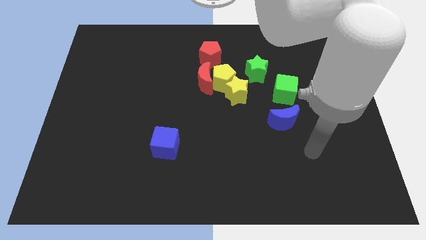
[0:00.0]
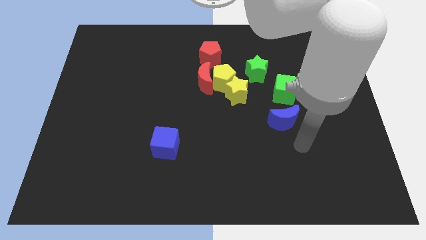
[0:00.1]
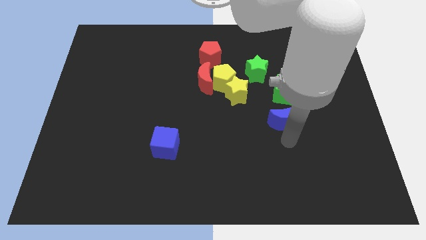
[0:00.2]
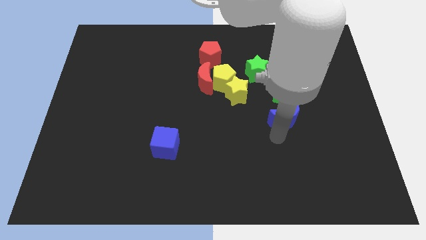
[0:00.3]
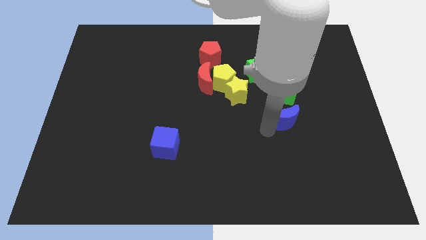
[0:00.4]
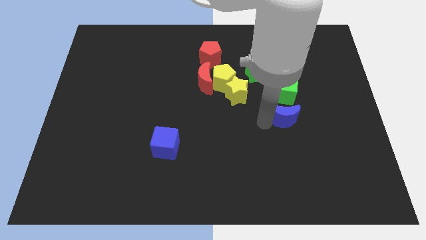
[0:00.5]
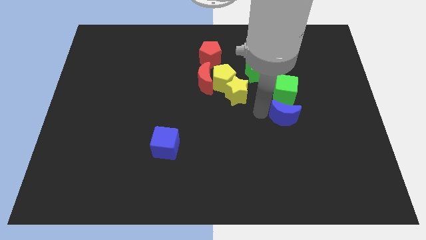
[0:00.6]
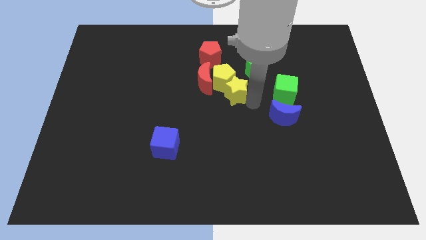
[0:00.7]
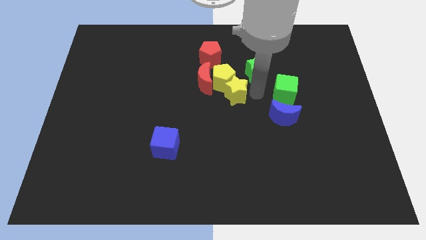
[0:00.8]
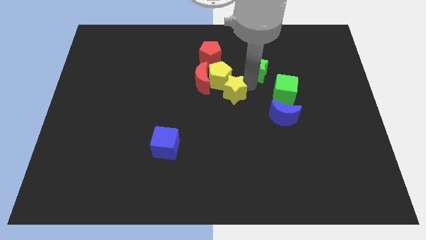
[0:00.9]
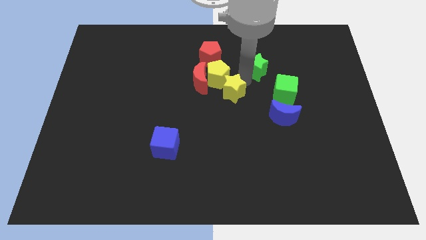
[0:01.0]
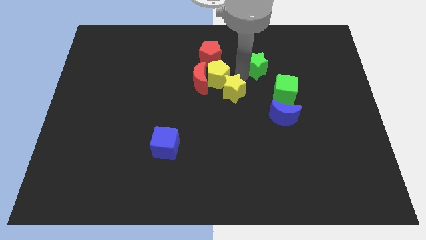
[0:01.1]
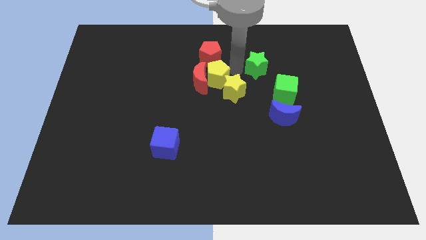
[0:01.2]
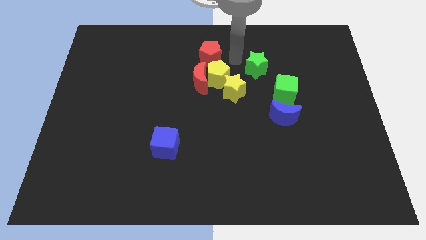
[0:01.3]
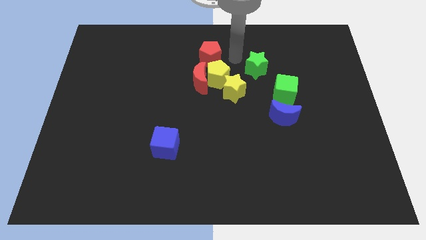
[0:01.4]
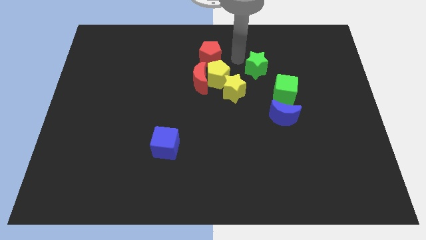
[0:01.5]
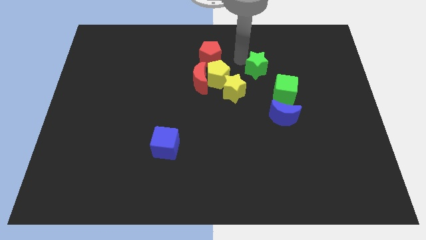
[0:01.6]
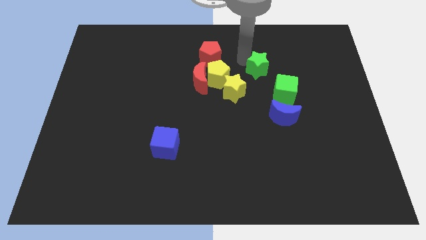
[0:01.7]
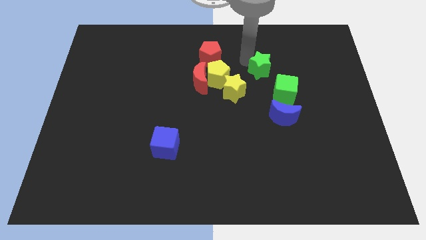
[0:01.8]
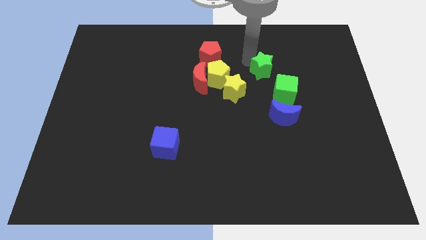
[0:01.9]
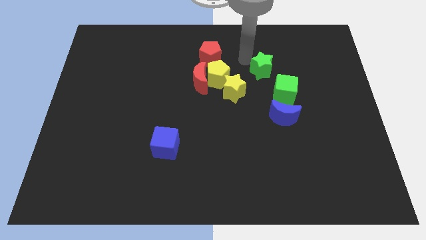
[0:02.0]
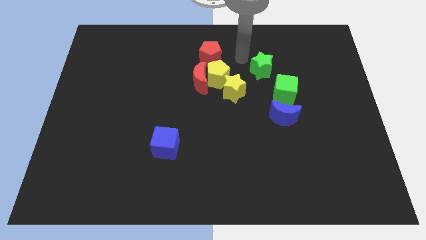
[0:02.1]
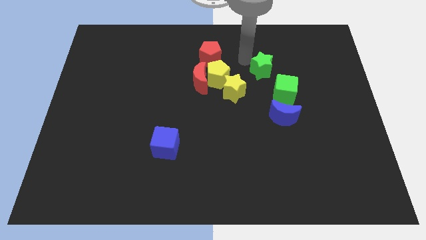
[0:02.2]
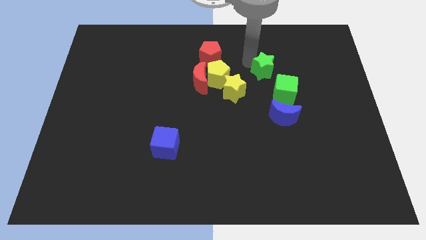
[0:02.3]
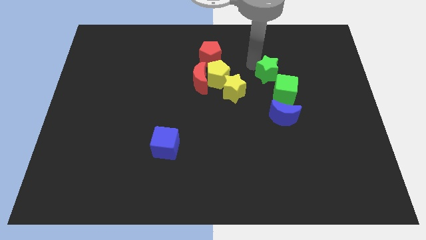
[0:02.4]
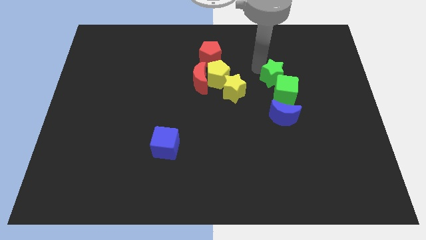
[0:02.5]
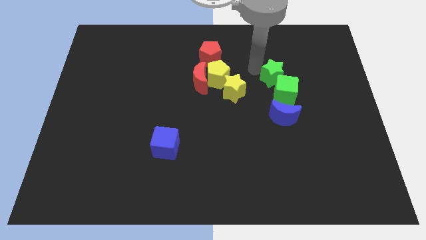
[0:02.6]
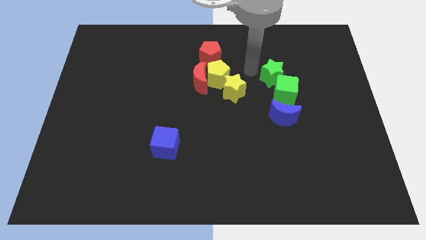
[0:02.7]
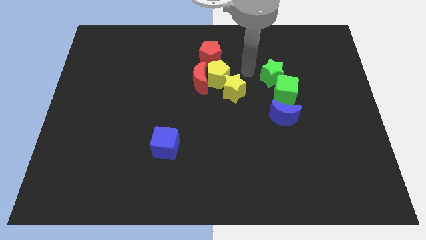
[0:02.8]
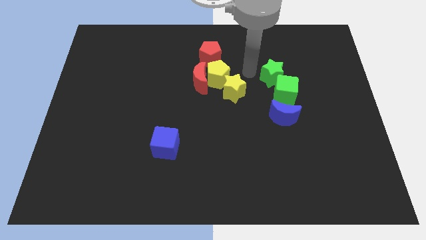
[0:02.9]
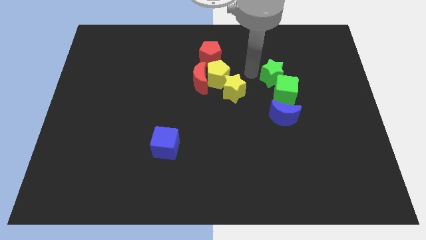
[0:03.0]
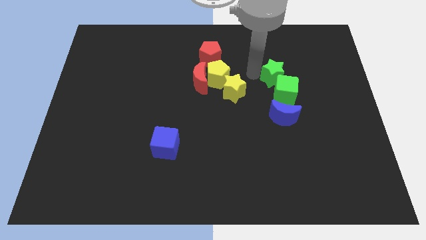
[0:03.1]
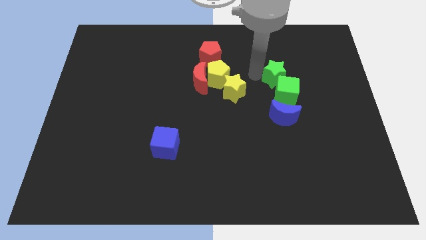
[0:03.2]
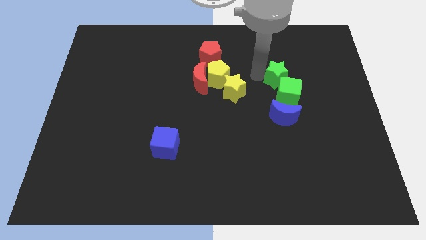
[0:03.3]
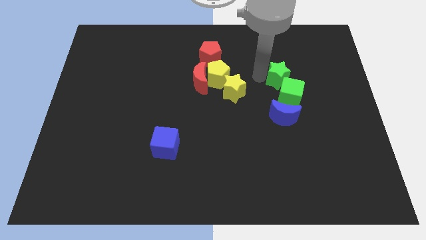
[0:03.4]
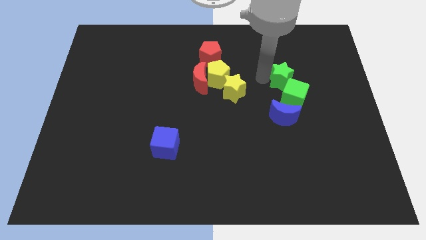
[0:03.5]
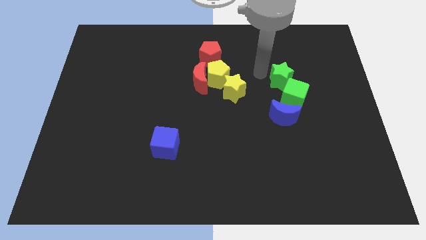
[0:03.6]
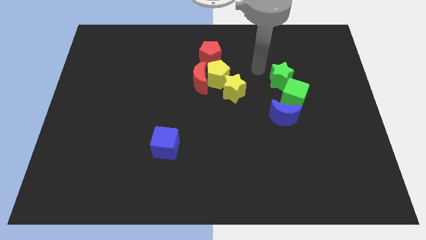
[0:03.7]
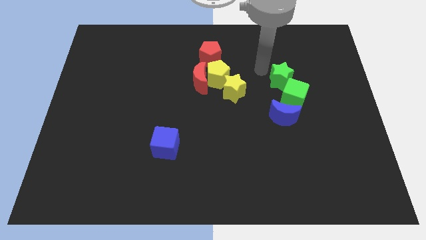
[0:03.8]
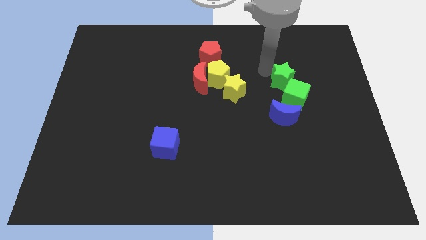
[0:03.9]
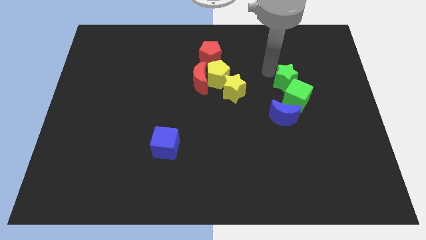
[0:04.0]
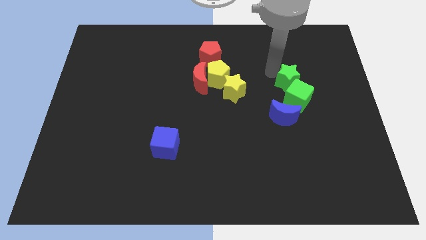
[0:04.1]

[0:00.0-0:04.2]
slightly move the green star diagonally downwards and right

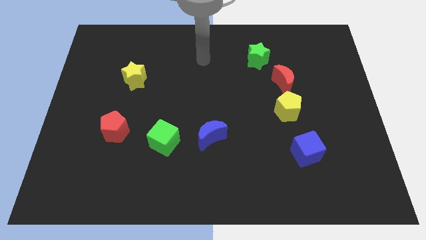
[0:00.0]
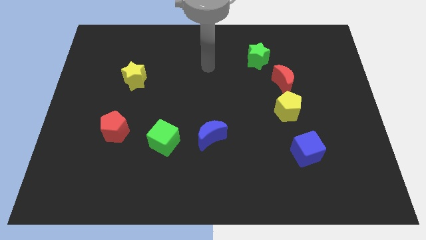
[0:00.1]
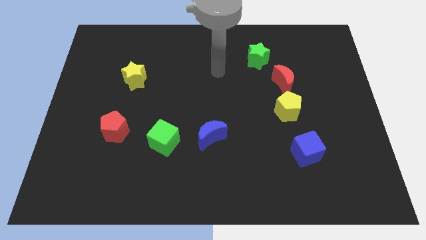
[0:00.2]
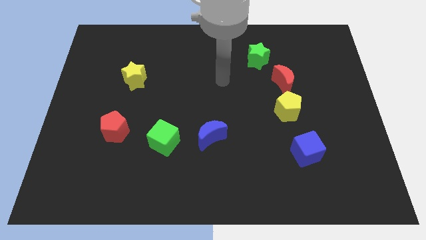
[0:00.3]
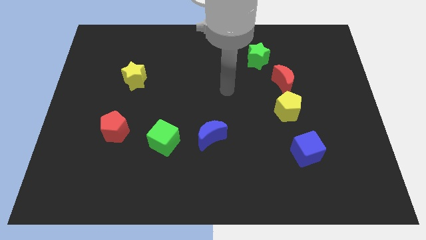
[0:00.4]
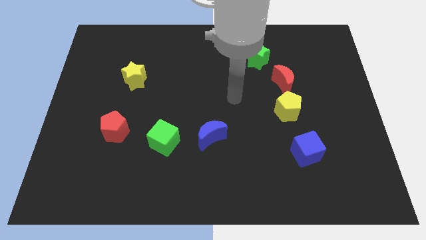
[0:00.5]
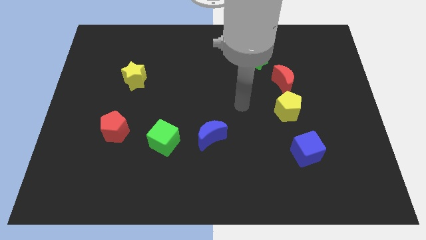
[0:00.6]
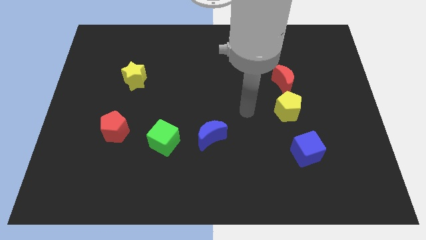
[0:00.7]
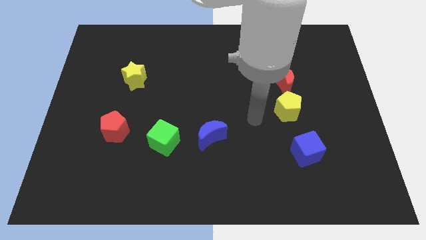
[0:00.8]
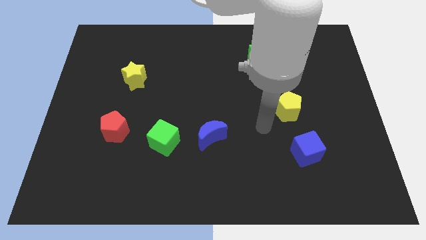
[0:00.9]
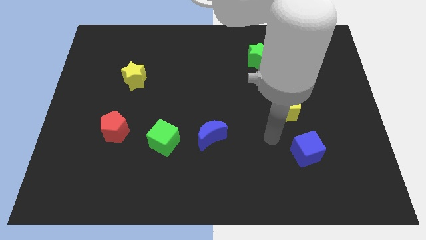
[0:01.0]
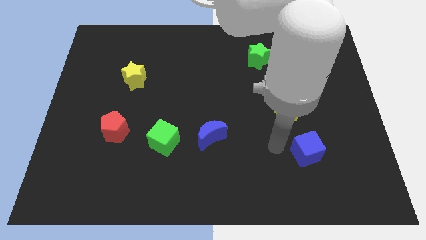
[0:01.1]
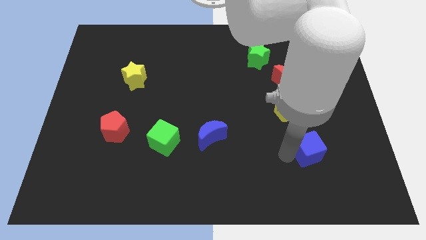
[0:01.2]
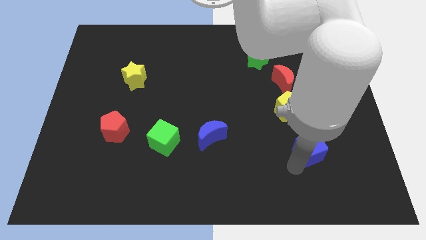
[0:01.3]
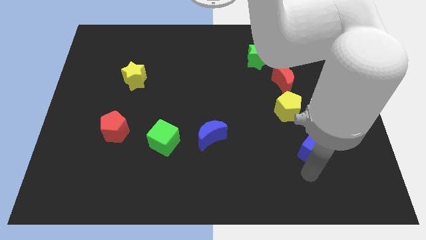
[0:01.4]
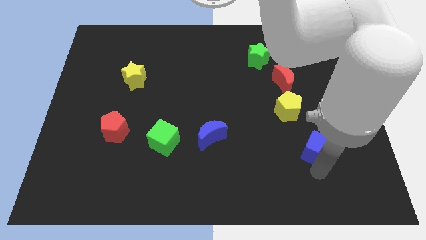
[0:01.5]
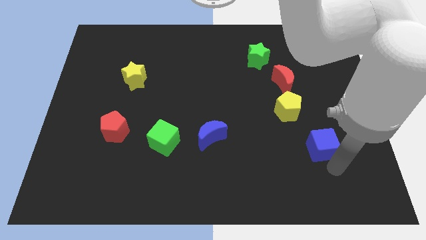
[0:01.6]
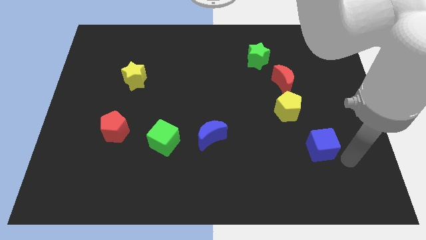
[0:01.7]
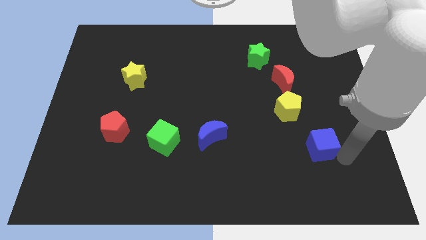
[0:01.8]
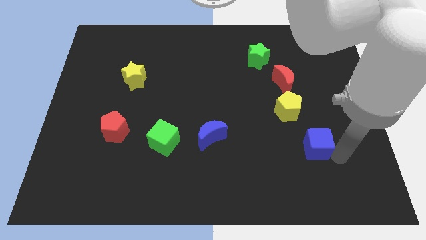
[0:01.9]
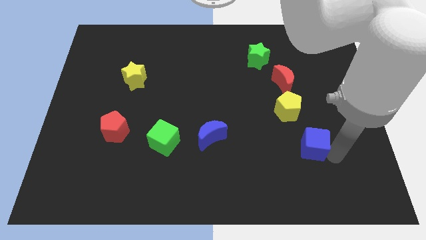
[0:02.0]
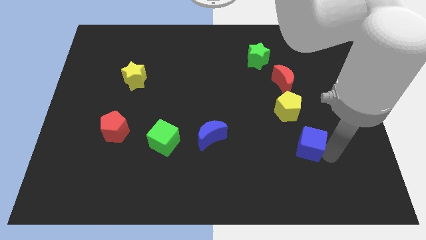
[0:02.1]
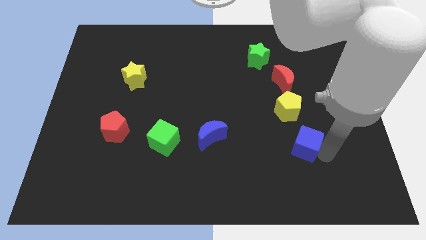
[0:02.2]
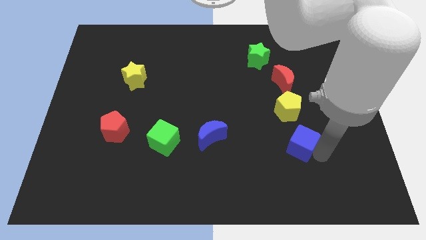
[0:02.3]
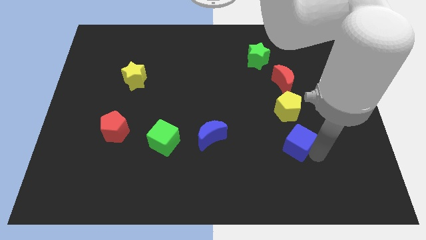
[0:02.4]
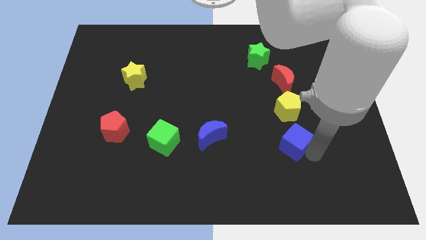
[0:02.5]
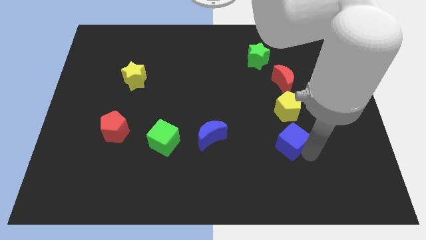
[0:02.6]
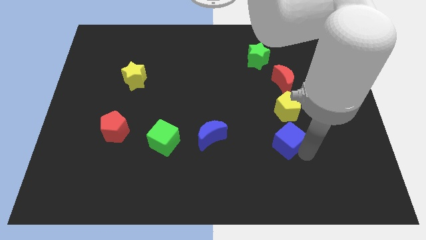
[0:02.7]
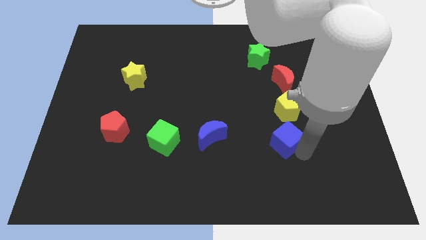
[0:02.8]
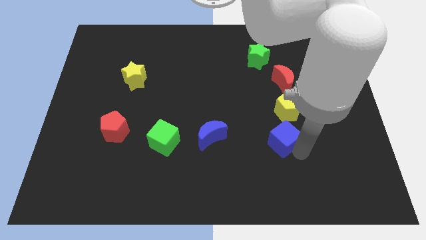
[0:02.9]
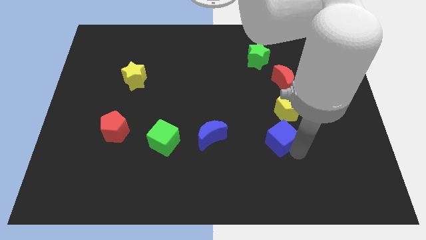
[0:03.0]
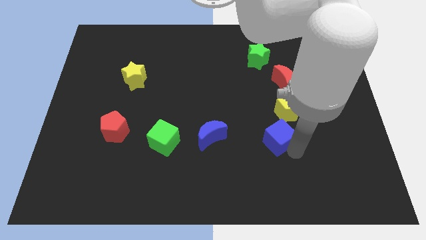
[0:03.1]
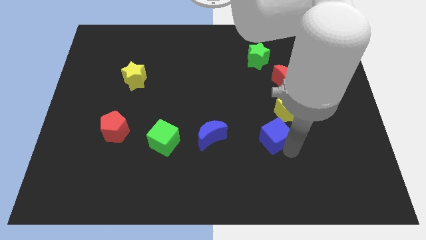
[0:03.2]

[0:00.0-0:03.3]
slightly move the blue cube diagonally up and to the left

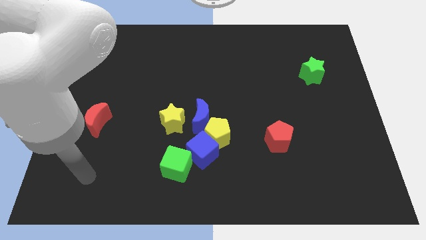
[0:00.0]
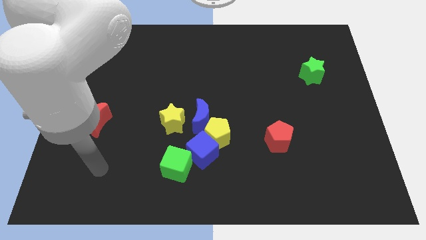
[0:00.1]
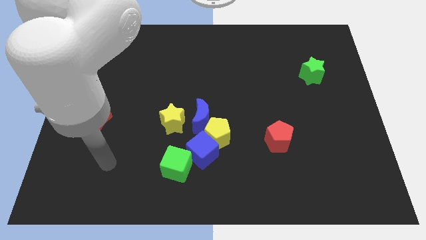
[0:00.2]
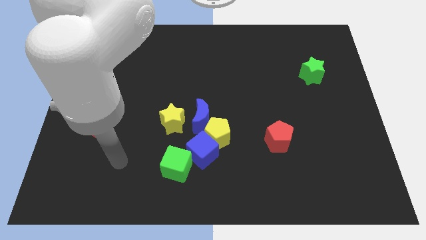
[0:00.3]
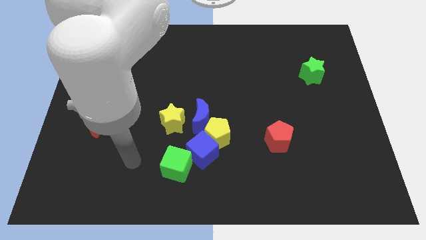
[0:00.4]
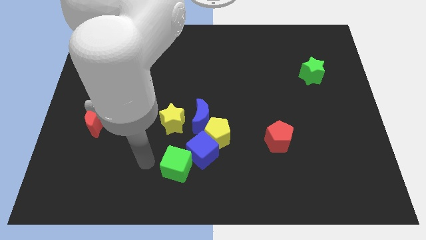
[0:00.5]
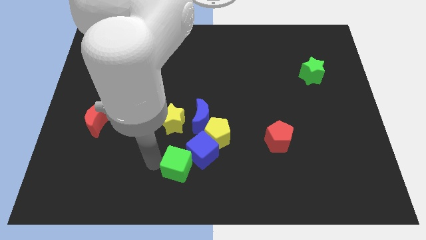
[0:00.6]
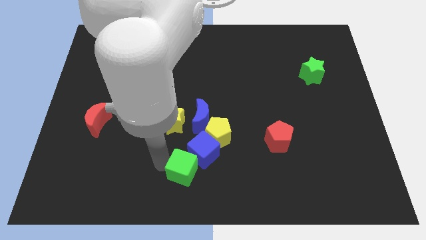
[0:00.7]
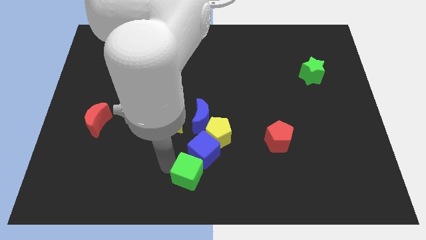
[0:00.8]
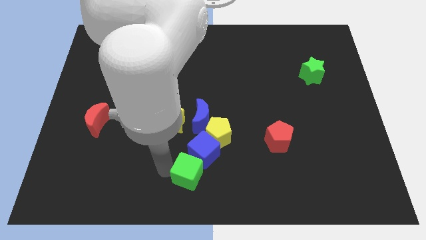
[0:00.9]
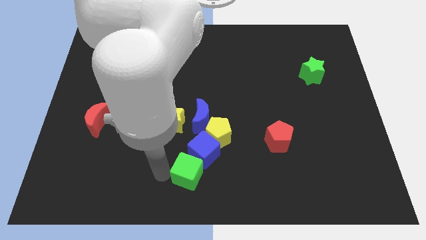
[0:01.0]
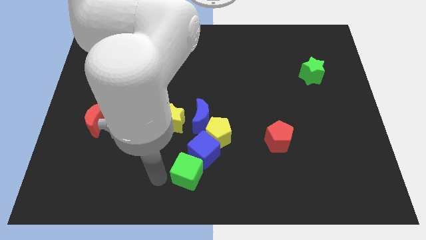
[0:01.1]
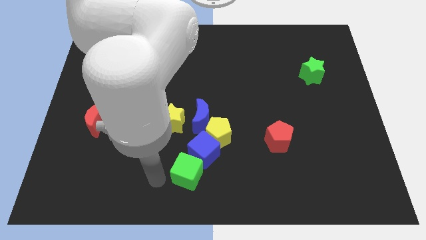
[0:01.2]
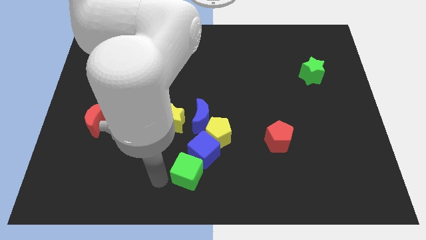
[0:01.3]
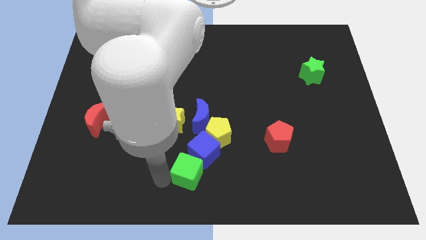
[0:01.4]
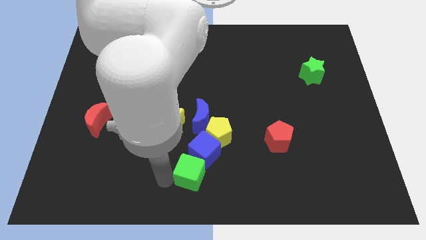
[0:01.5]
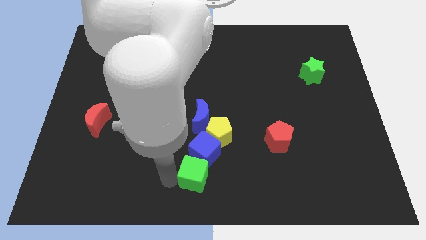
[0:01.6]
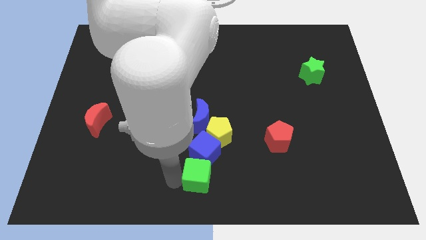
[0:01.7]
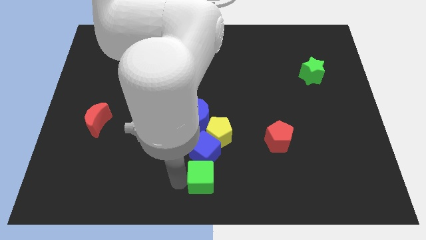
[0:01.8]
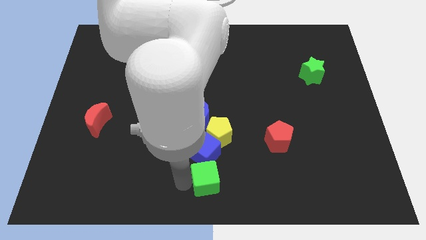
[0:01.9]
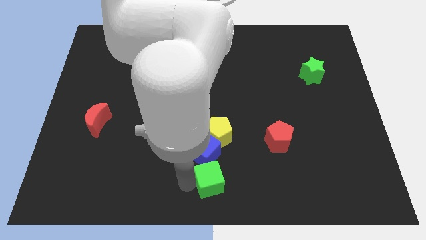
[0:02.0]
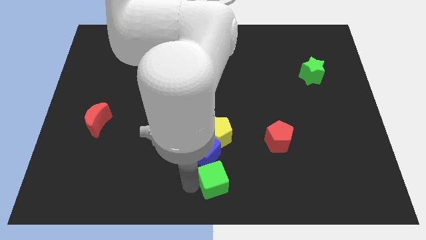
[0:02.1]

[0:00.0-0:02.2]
slightly slide the green cube to the right
